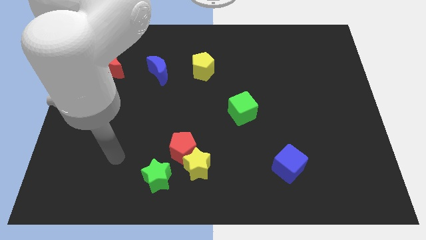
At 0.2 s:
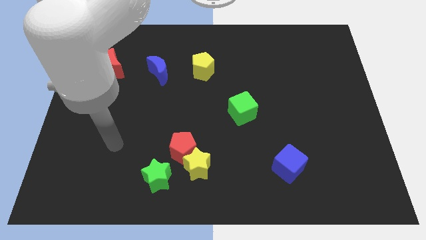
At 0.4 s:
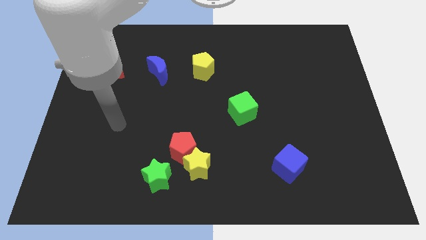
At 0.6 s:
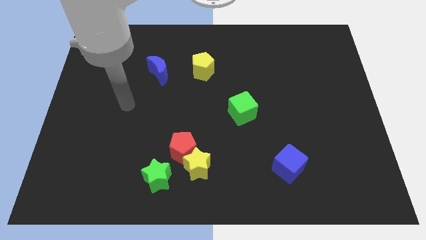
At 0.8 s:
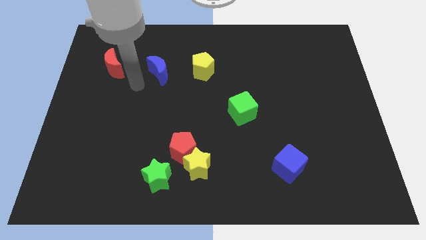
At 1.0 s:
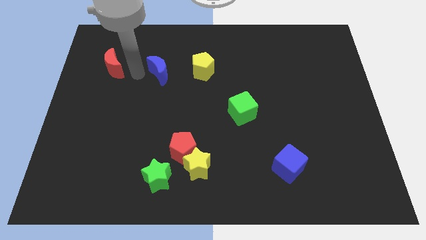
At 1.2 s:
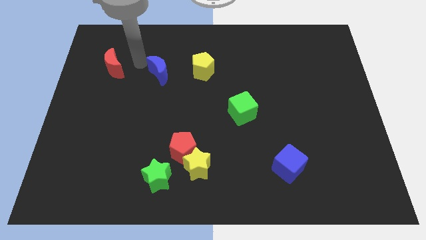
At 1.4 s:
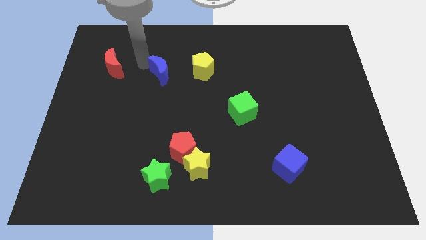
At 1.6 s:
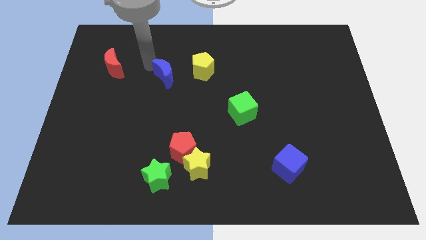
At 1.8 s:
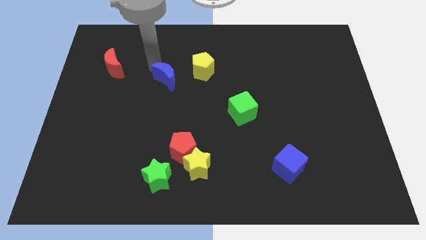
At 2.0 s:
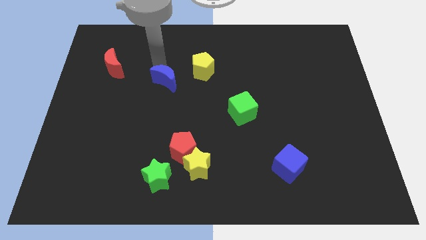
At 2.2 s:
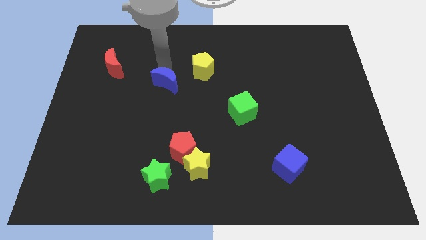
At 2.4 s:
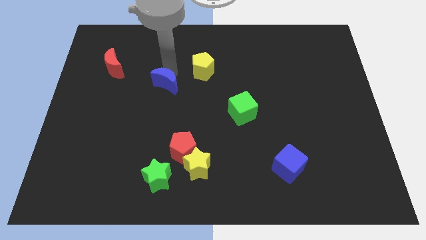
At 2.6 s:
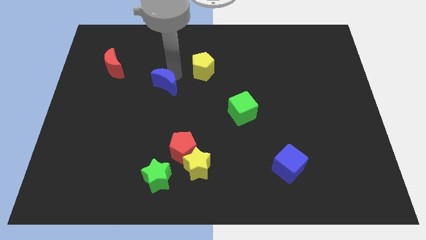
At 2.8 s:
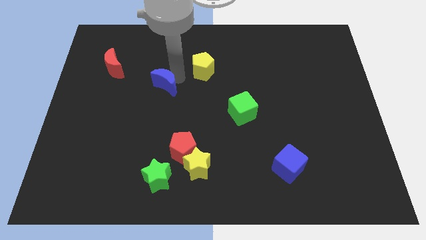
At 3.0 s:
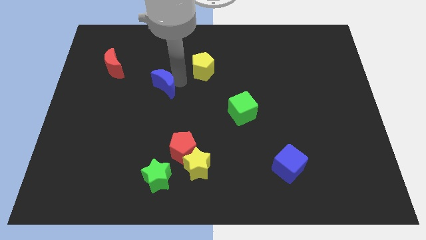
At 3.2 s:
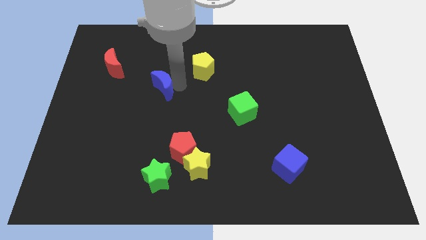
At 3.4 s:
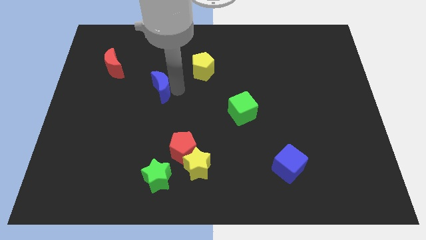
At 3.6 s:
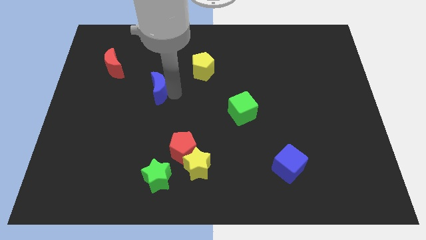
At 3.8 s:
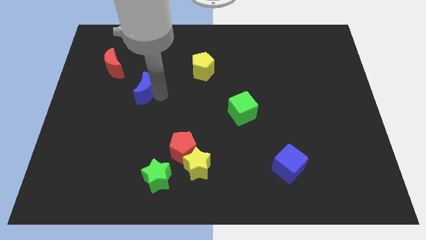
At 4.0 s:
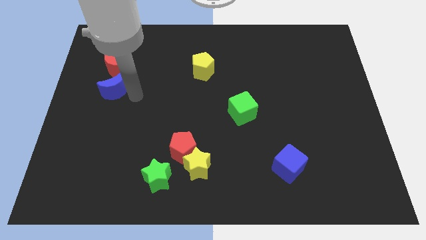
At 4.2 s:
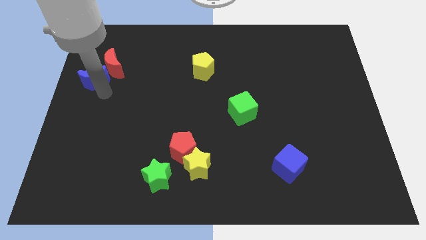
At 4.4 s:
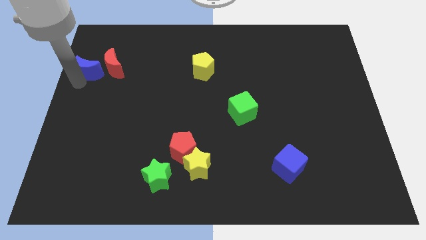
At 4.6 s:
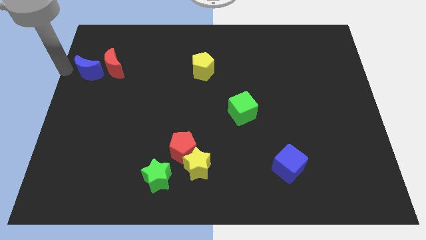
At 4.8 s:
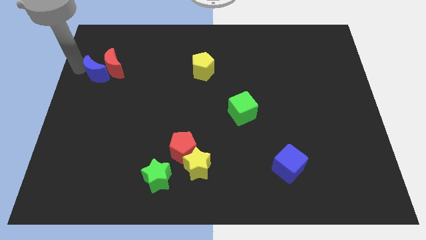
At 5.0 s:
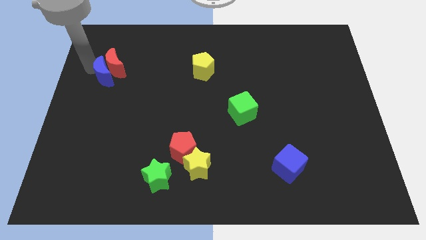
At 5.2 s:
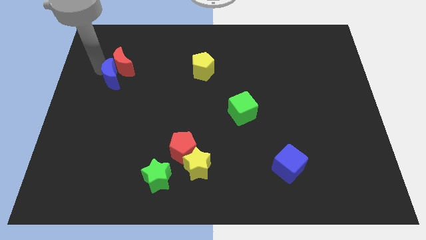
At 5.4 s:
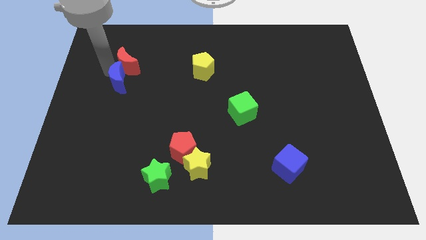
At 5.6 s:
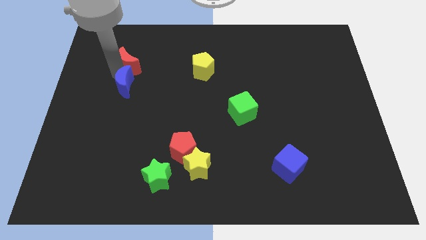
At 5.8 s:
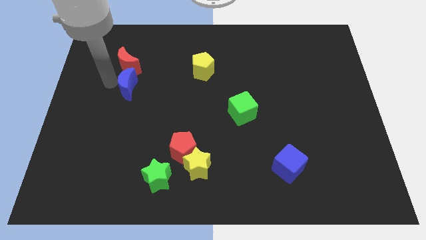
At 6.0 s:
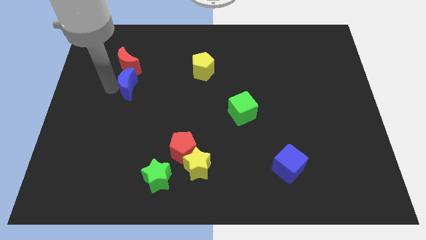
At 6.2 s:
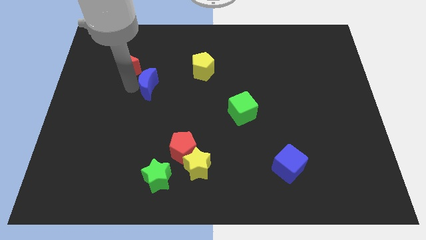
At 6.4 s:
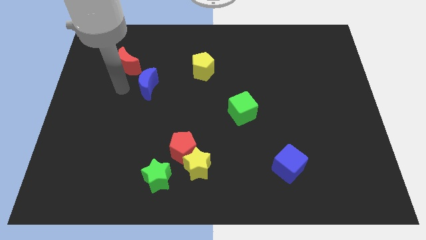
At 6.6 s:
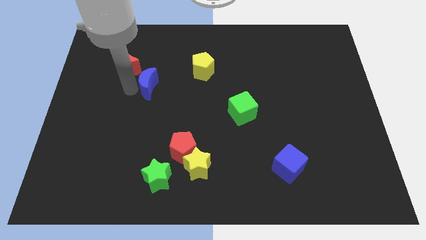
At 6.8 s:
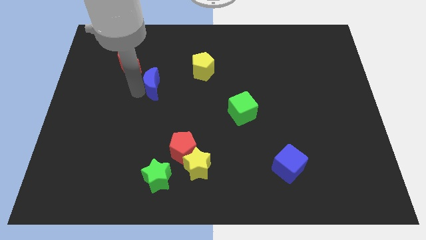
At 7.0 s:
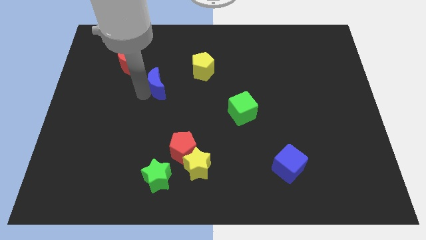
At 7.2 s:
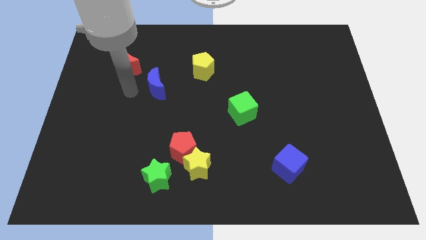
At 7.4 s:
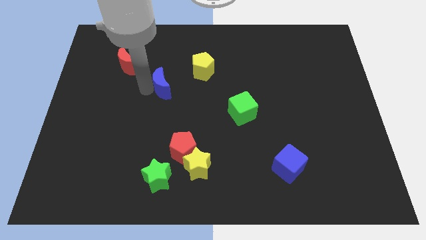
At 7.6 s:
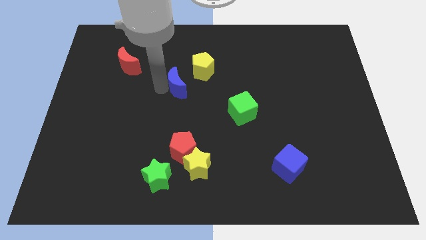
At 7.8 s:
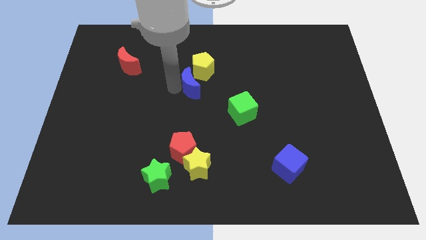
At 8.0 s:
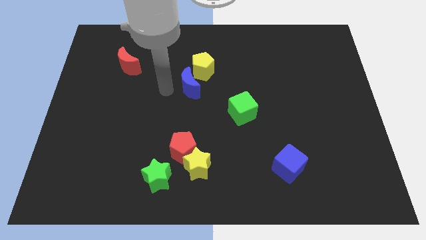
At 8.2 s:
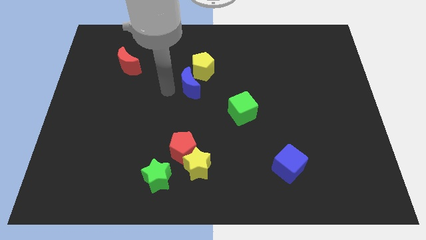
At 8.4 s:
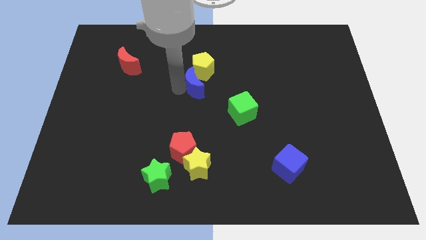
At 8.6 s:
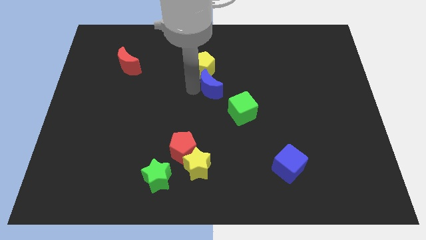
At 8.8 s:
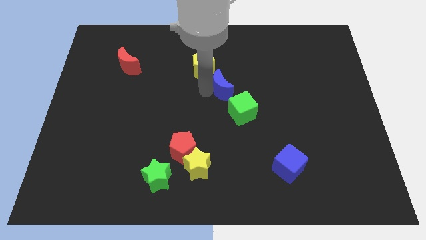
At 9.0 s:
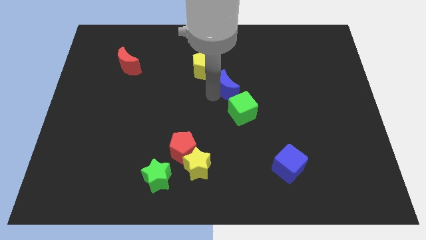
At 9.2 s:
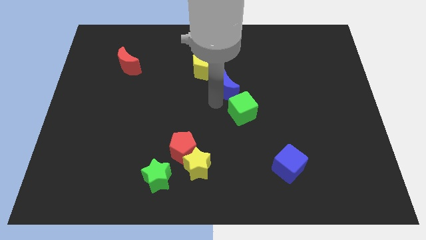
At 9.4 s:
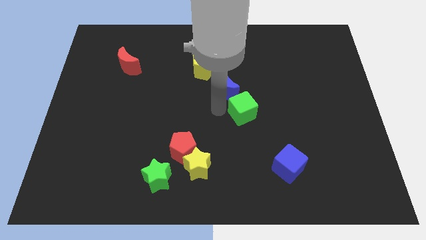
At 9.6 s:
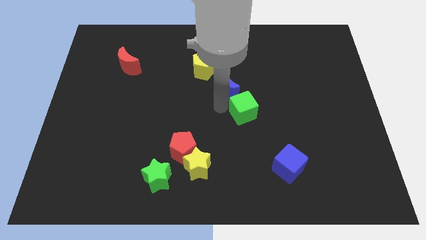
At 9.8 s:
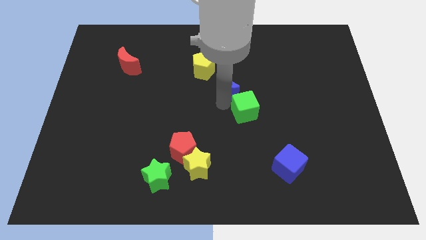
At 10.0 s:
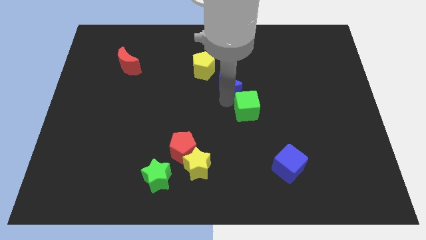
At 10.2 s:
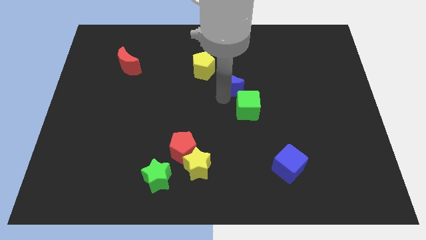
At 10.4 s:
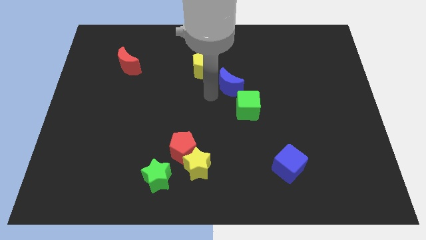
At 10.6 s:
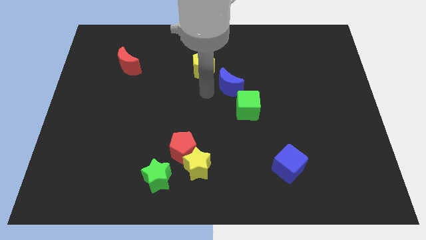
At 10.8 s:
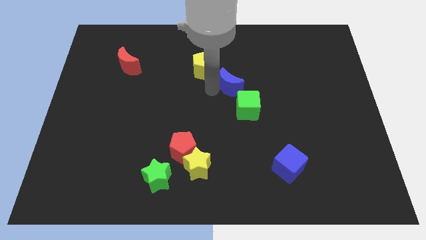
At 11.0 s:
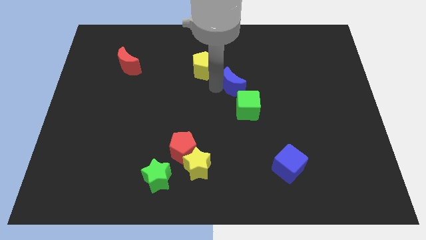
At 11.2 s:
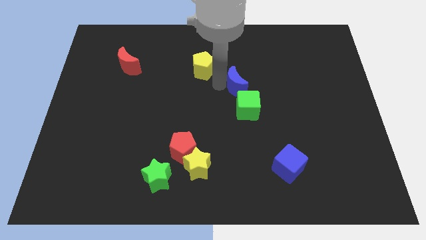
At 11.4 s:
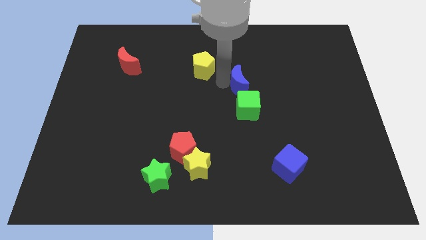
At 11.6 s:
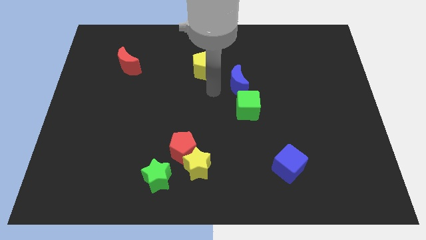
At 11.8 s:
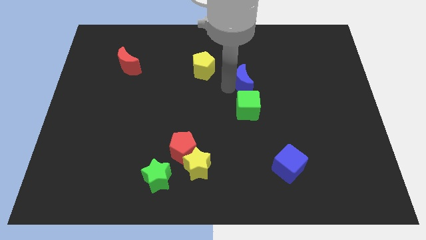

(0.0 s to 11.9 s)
push the blue moon right

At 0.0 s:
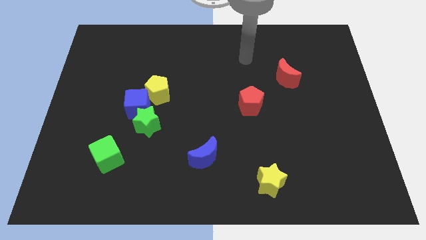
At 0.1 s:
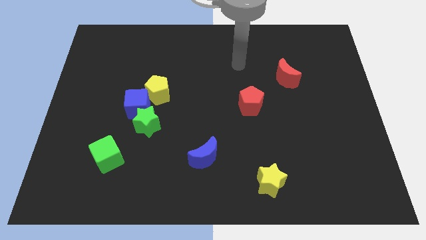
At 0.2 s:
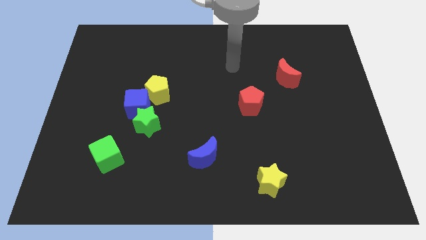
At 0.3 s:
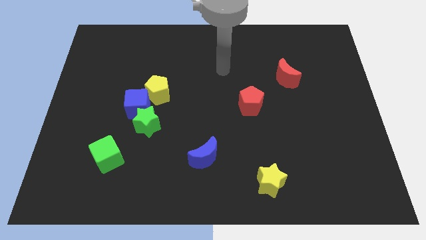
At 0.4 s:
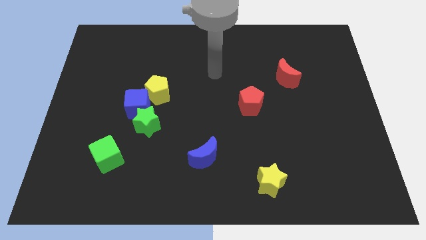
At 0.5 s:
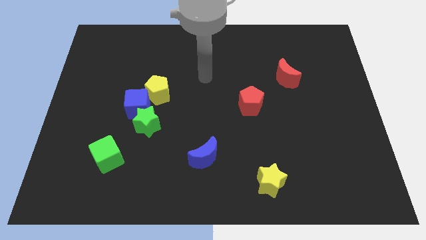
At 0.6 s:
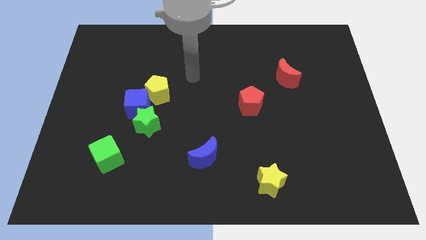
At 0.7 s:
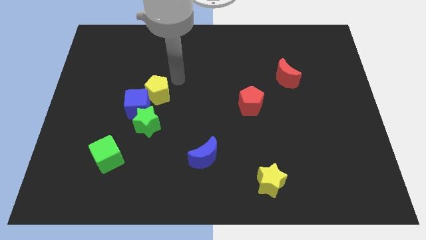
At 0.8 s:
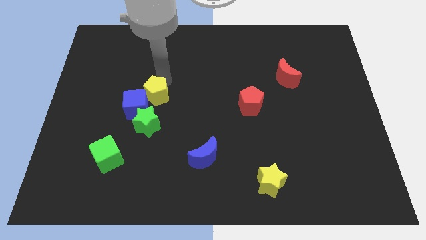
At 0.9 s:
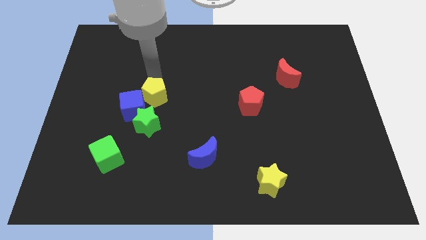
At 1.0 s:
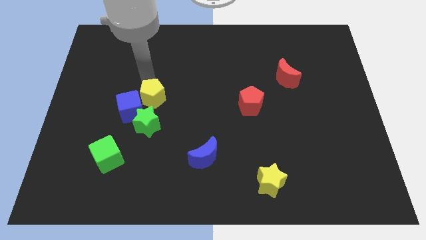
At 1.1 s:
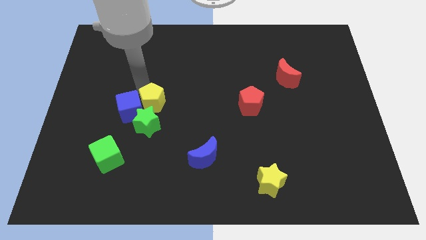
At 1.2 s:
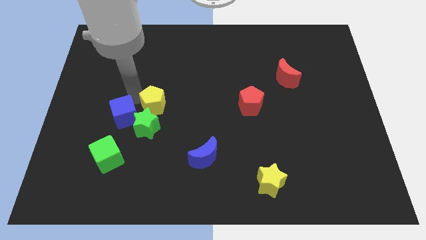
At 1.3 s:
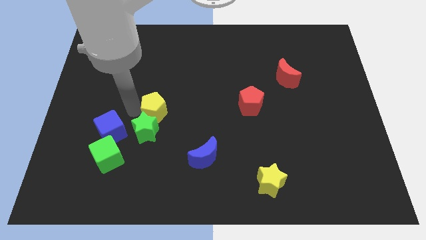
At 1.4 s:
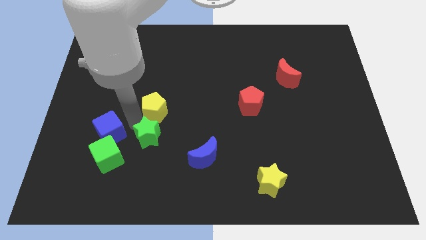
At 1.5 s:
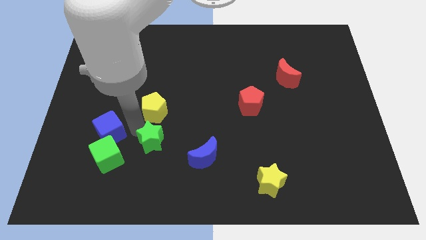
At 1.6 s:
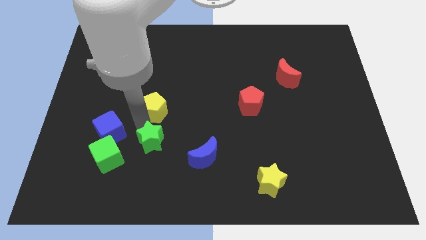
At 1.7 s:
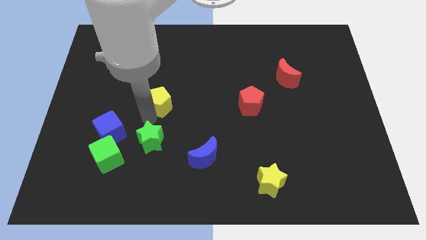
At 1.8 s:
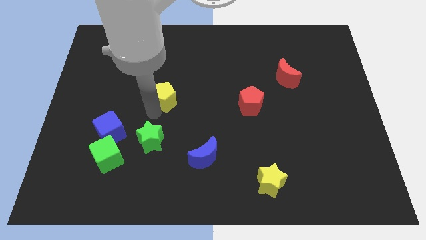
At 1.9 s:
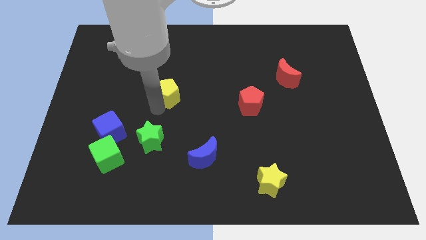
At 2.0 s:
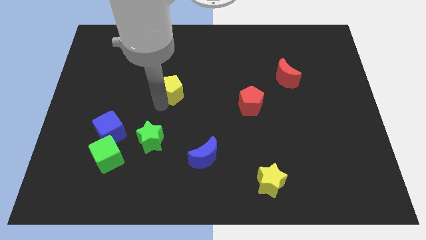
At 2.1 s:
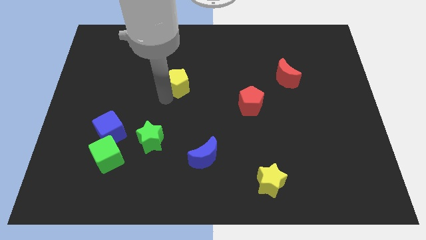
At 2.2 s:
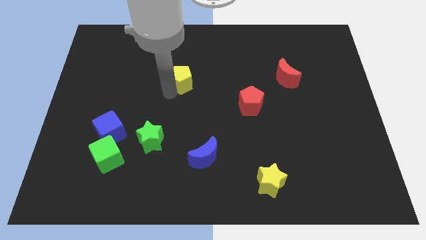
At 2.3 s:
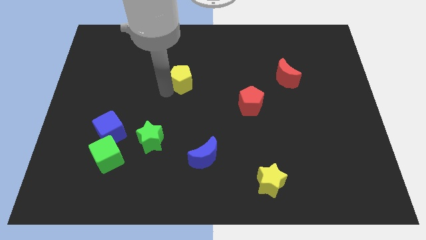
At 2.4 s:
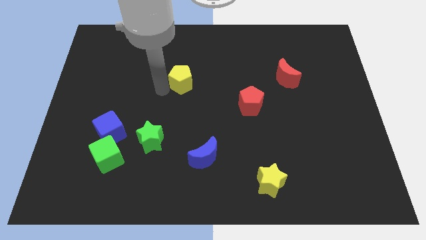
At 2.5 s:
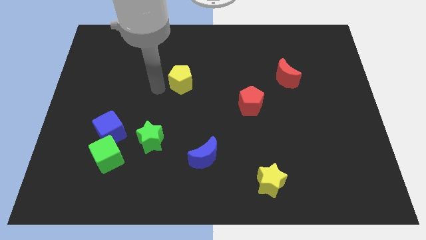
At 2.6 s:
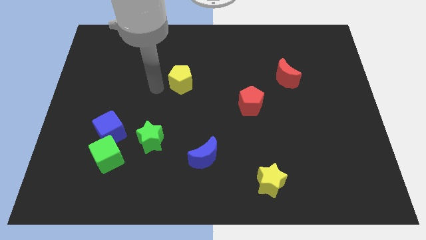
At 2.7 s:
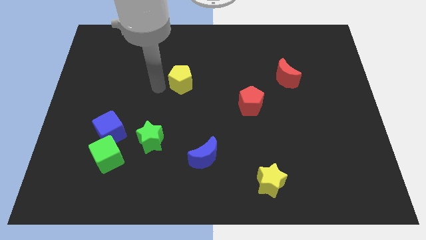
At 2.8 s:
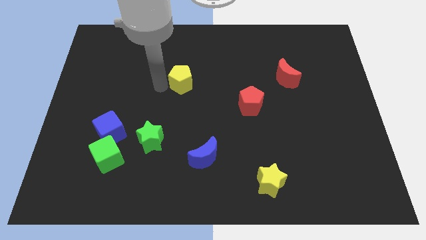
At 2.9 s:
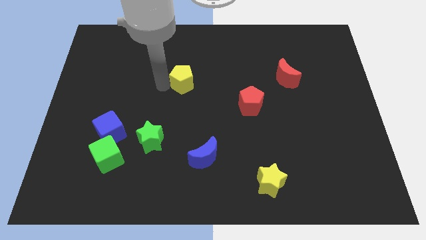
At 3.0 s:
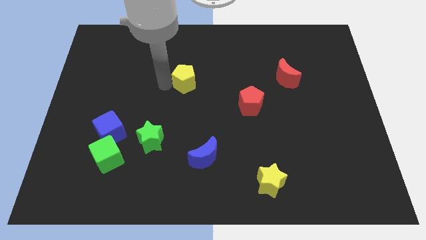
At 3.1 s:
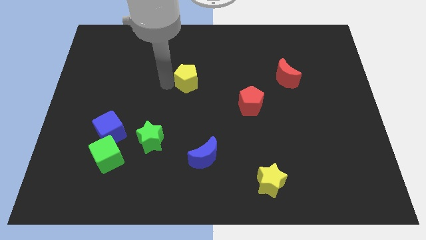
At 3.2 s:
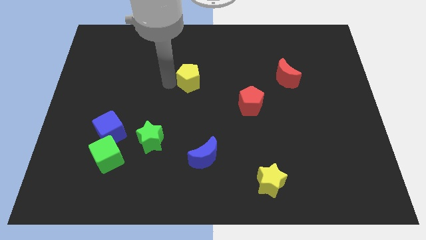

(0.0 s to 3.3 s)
push the yellow pentagon to the right a bit
